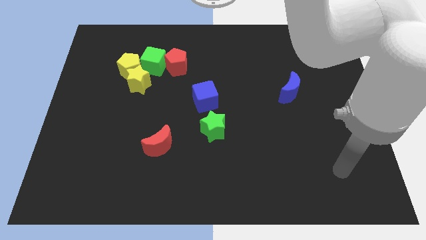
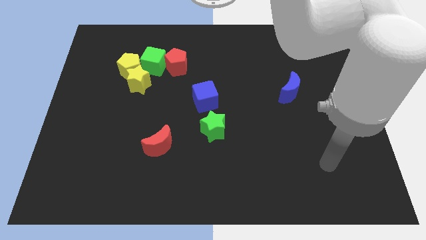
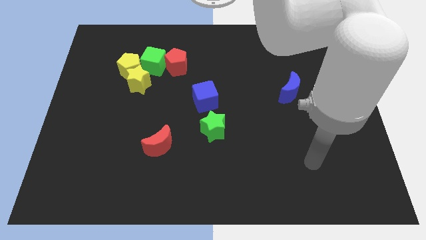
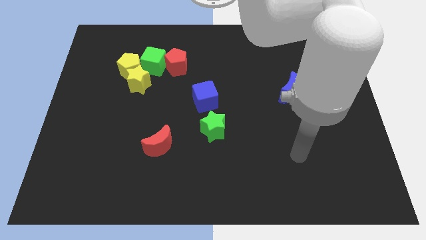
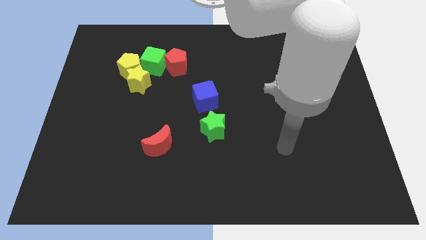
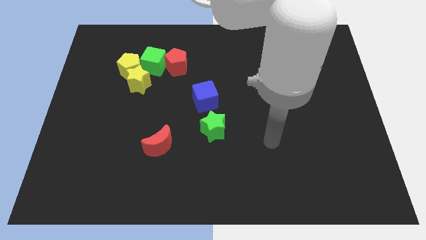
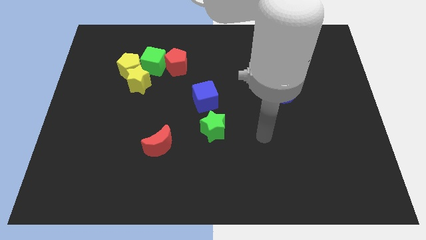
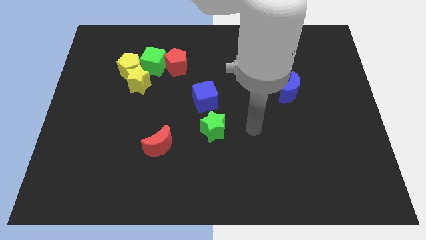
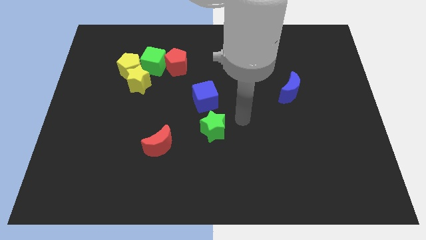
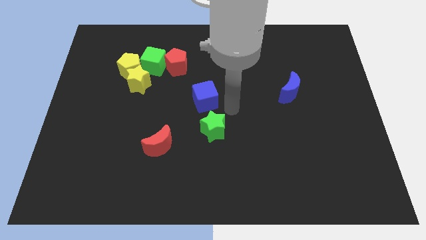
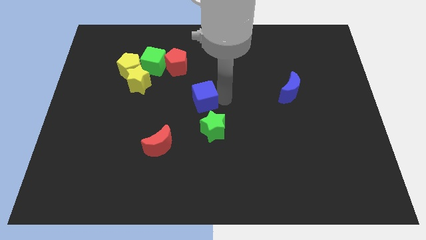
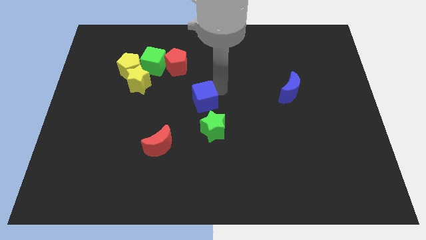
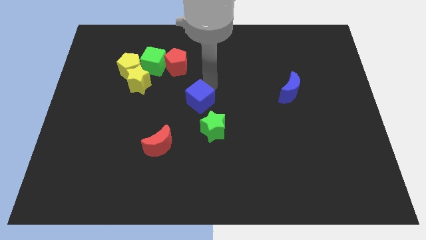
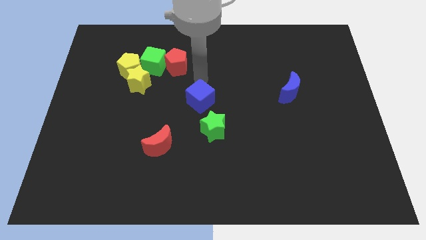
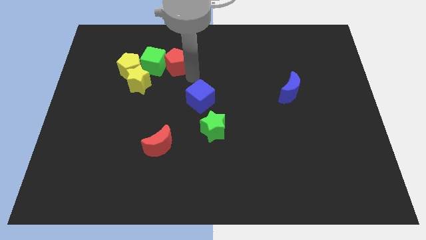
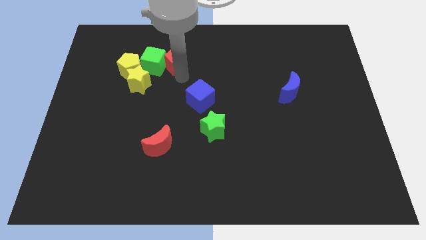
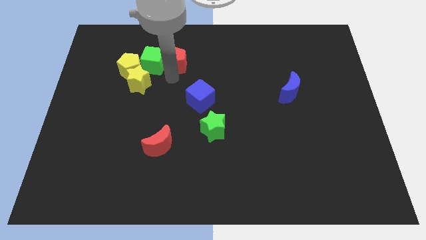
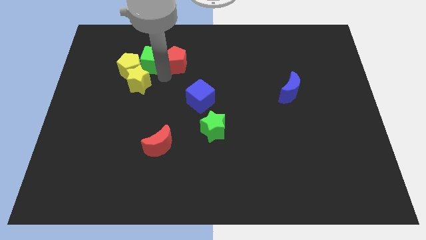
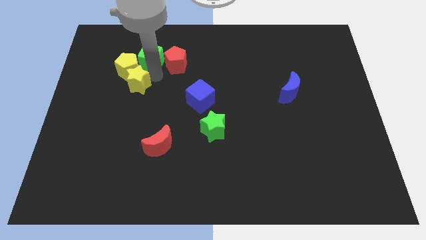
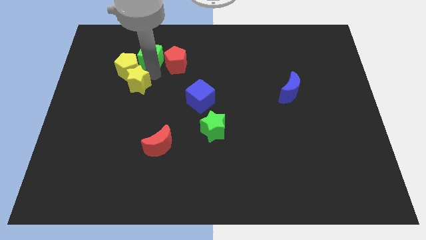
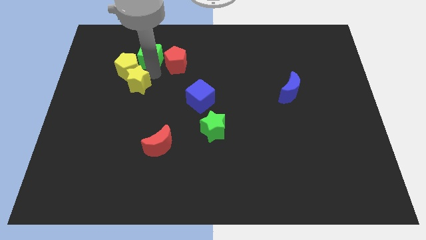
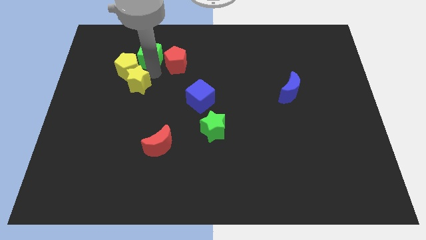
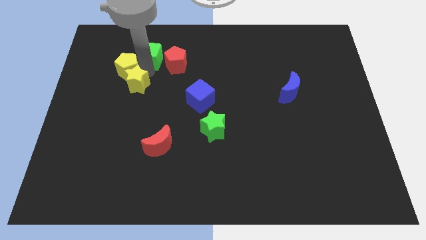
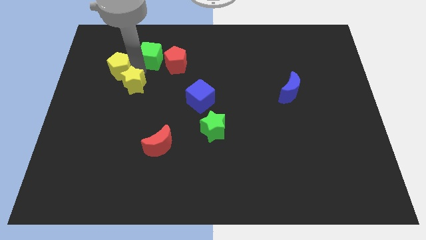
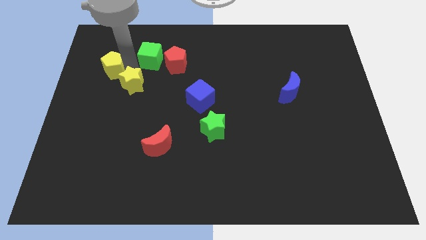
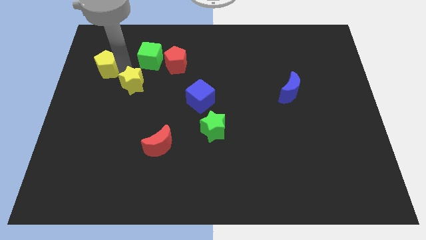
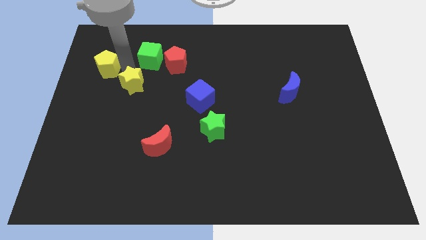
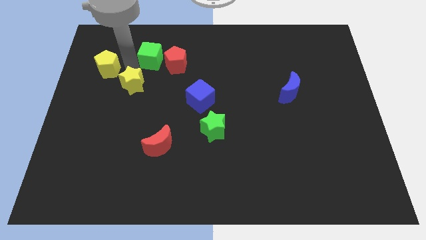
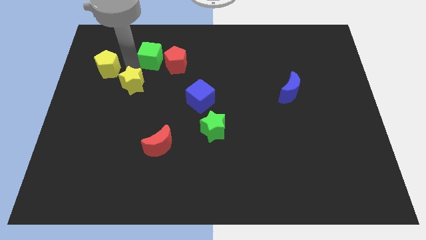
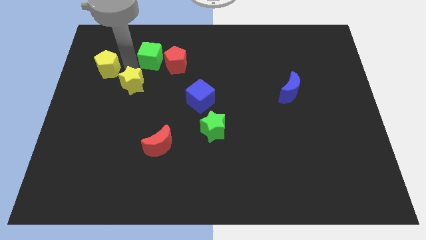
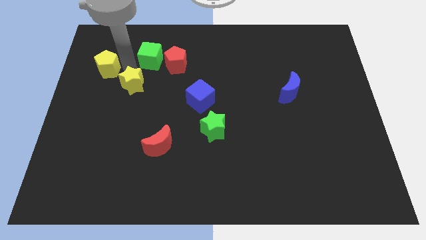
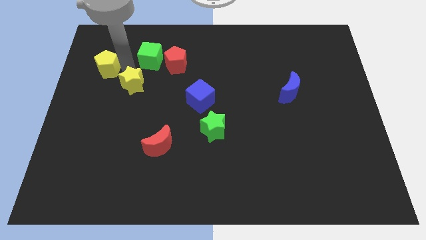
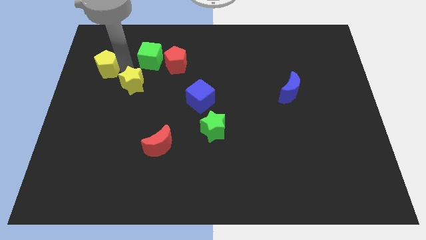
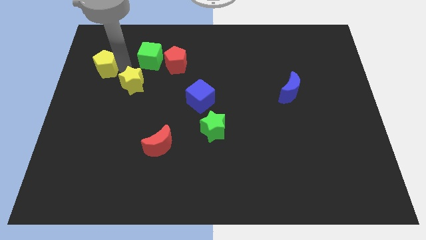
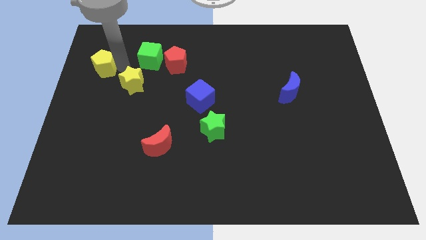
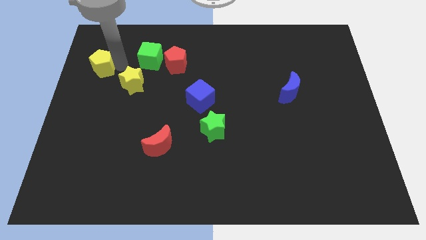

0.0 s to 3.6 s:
pull the yellow pentagon apart from the yellow star and green cube

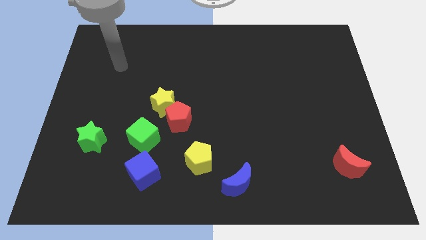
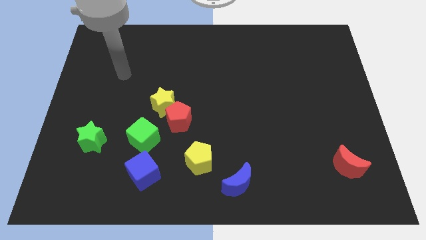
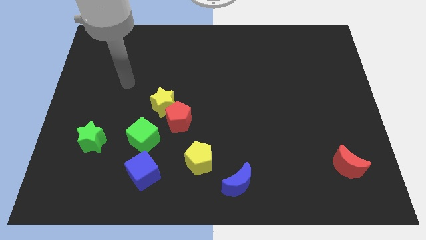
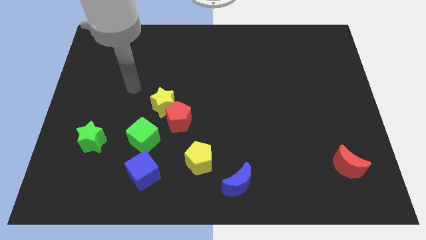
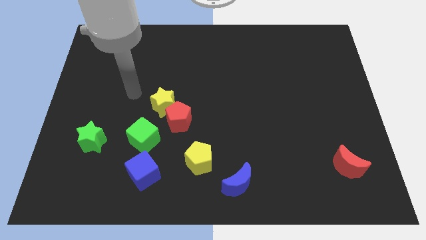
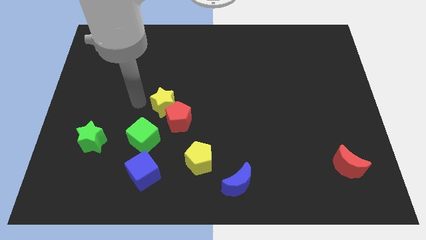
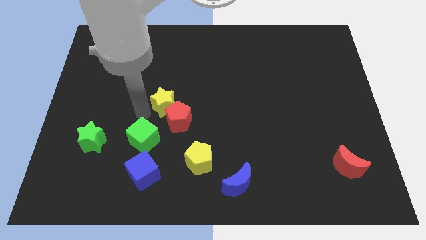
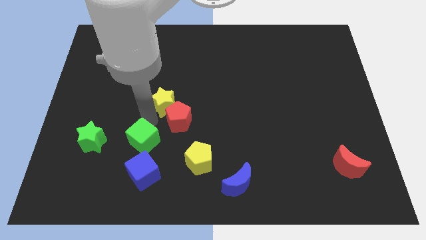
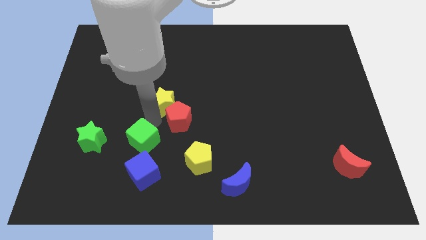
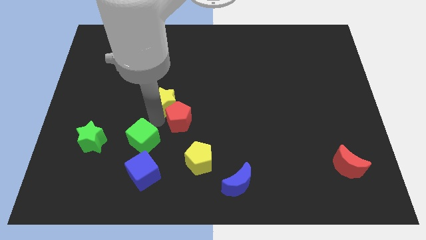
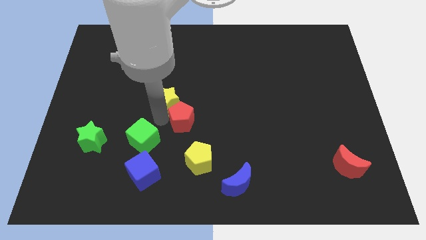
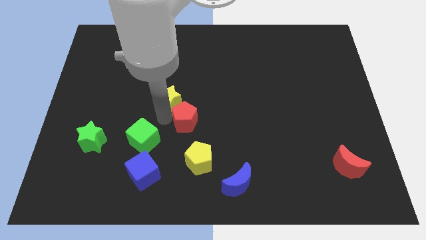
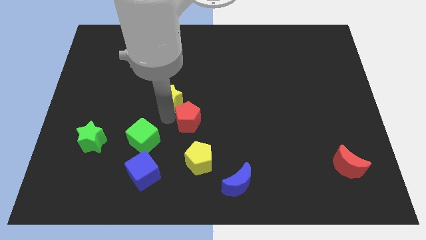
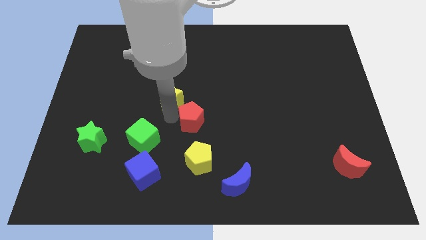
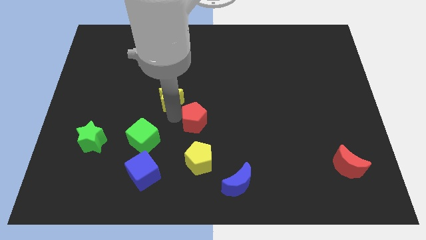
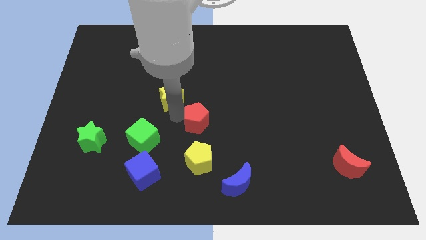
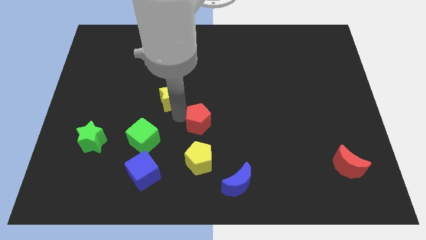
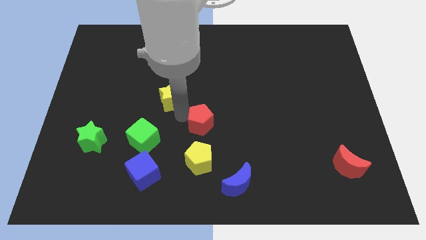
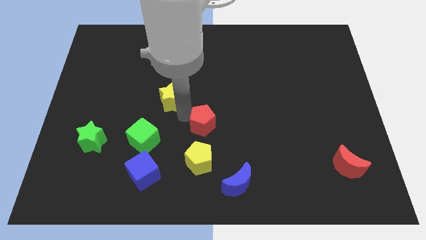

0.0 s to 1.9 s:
move the red pentagon away from the yellow star and green cube

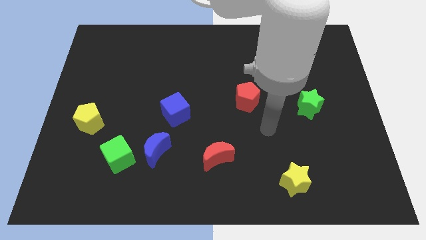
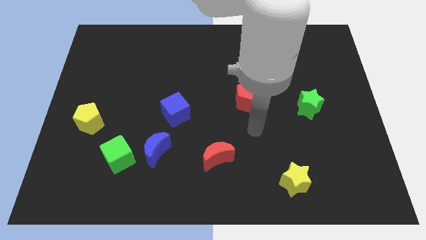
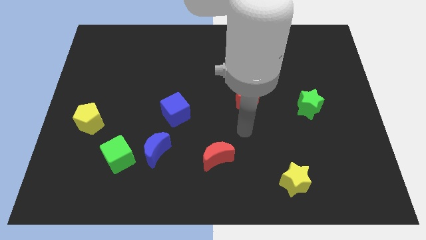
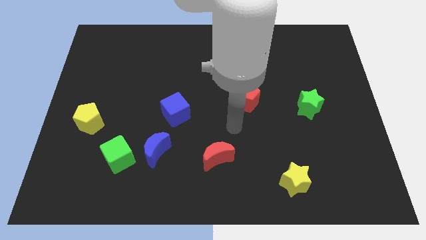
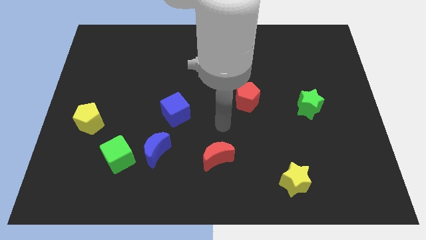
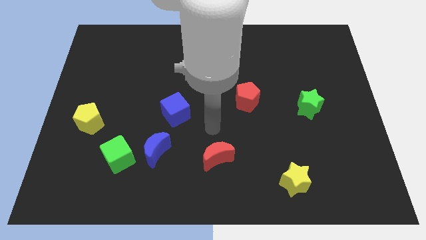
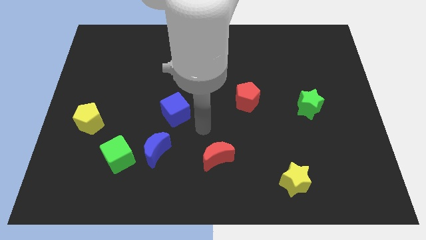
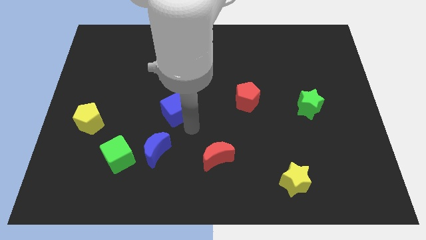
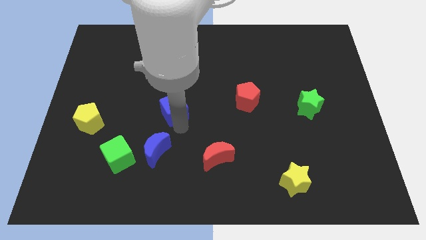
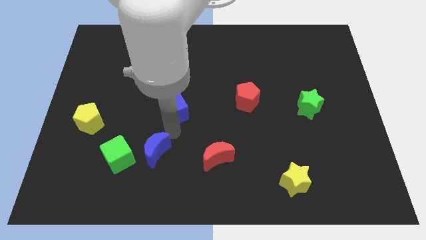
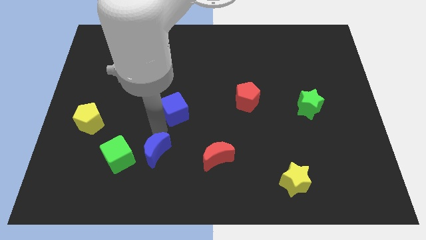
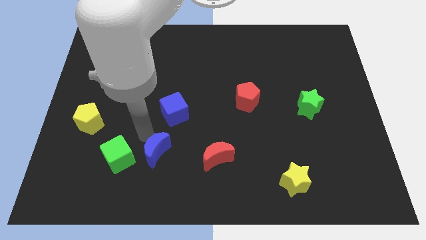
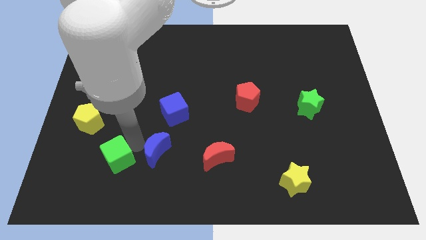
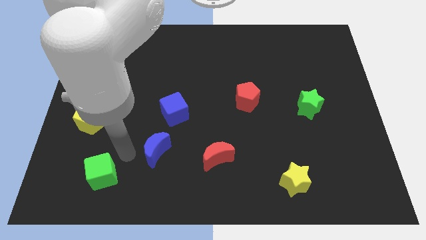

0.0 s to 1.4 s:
separate the blue moon from the green cube

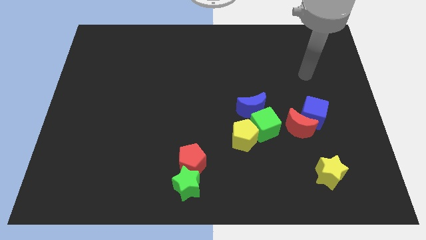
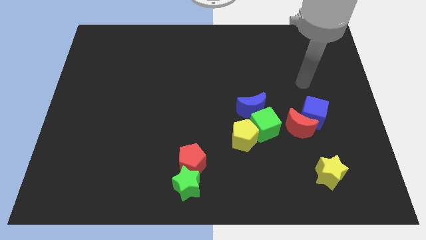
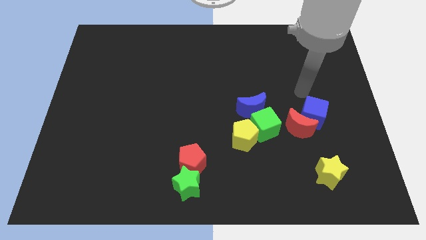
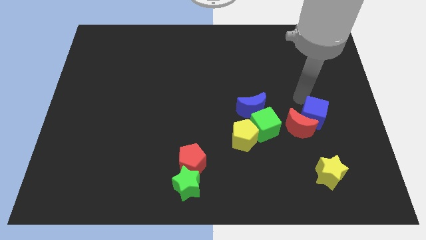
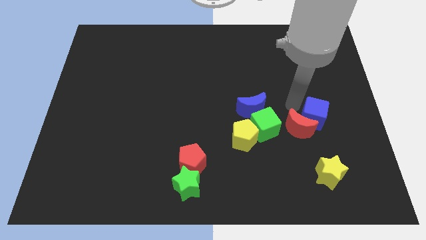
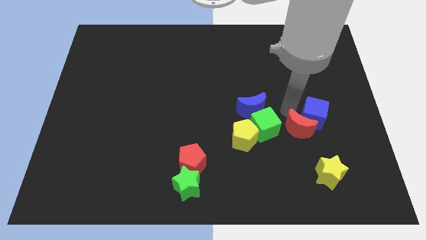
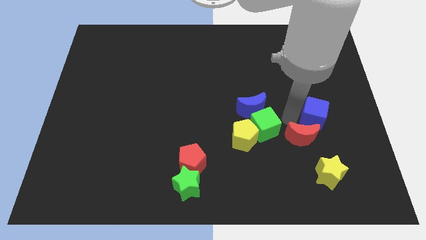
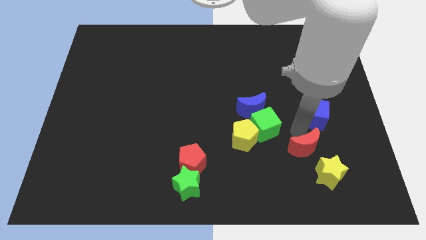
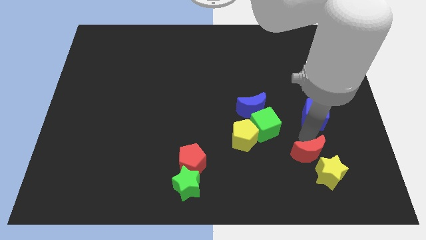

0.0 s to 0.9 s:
pull the blue cube apart from the red moon

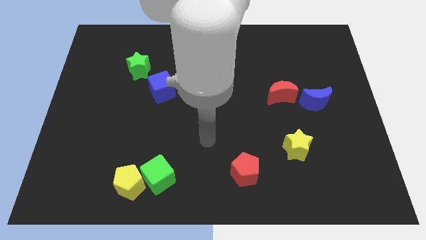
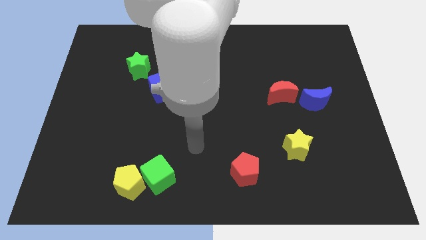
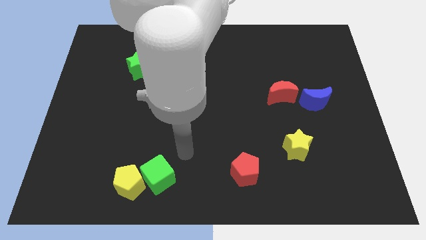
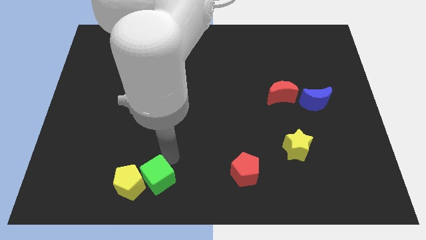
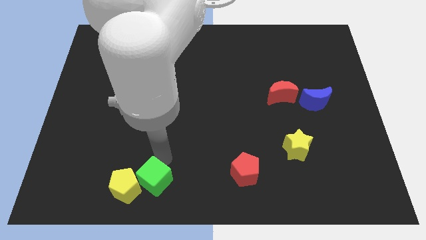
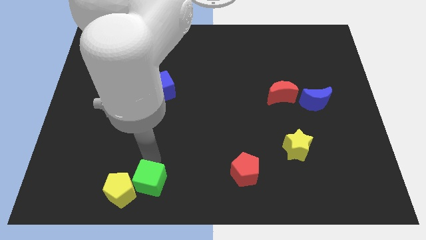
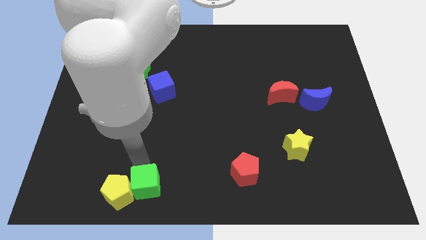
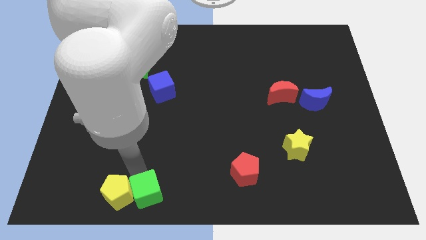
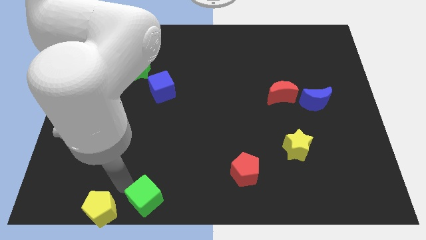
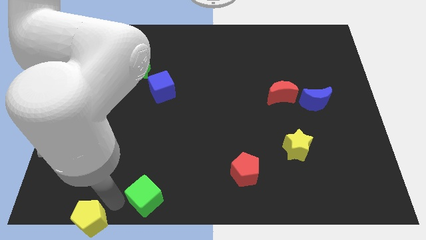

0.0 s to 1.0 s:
separate the green cube from the yellow pentagon

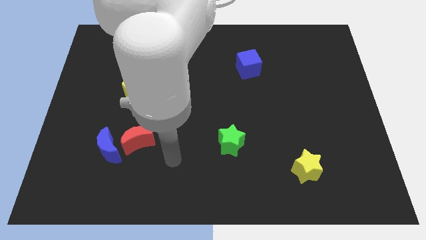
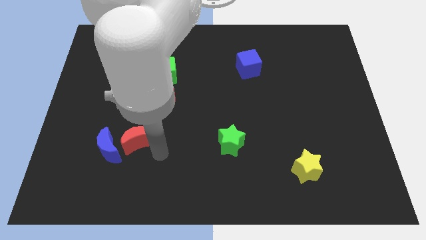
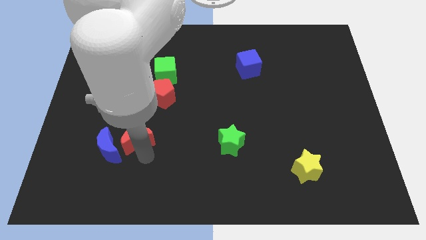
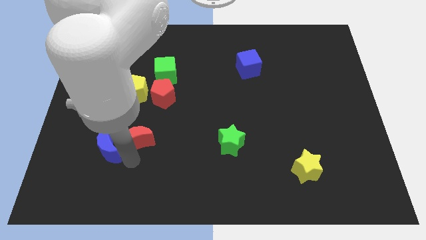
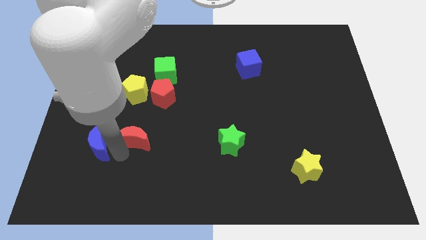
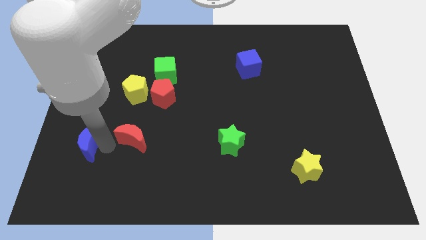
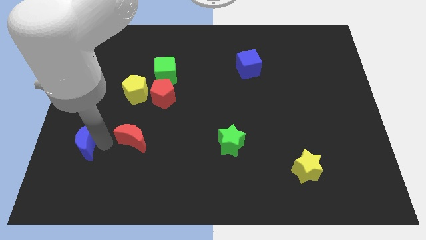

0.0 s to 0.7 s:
separate the red moon from the blue moon

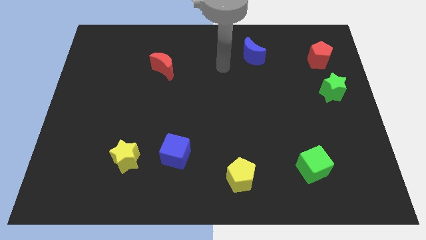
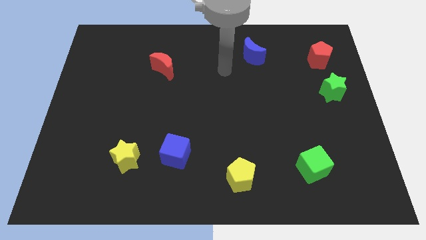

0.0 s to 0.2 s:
move the blue cube away from the yellow star
